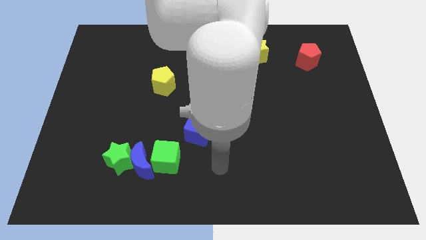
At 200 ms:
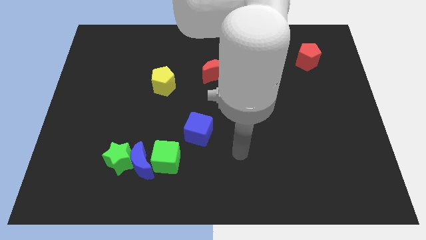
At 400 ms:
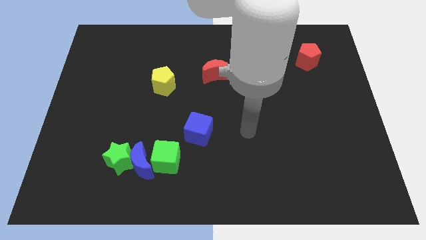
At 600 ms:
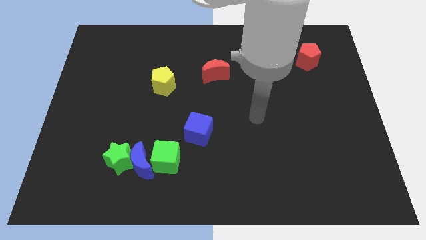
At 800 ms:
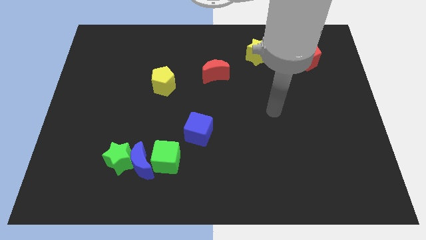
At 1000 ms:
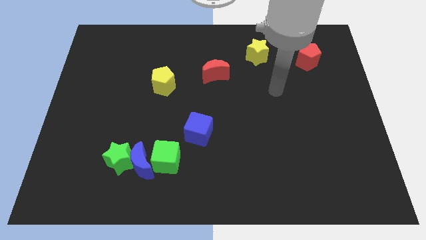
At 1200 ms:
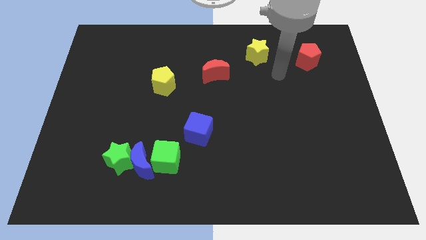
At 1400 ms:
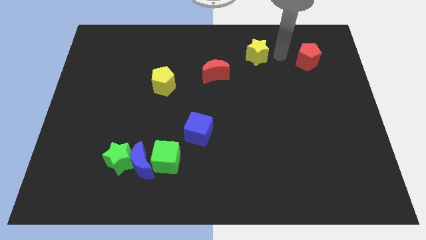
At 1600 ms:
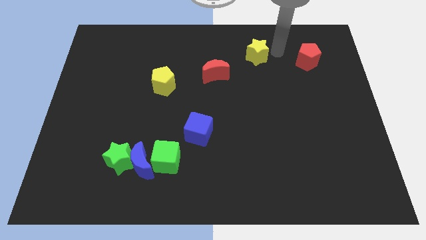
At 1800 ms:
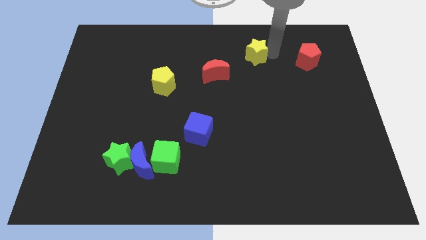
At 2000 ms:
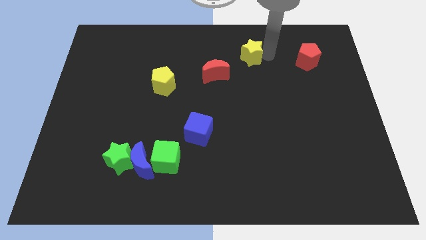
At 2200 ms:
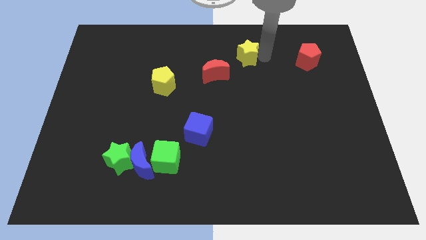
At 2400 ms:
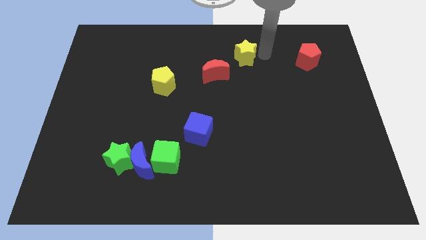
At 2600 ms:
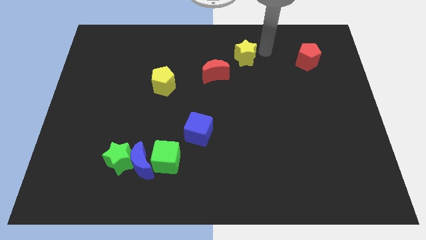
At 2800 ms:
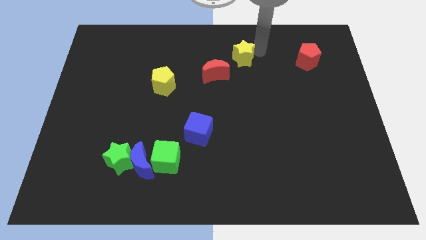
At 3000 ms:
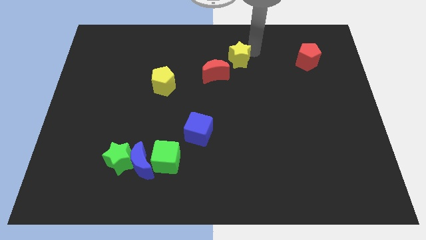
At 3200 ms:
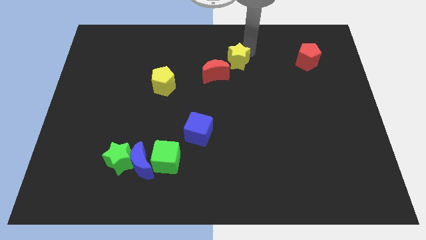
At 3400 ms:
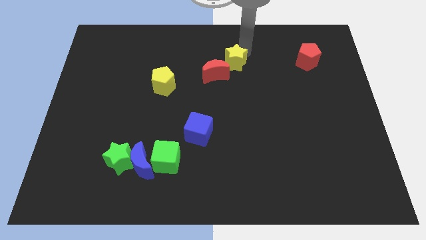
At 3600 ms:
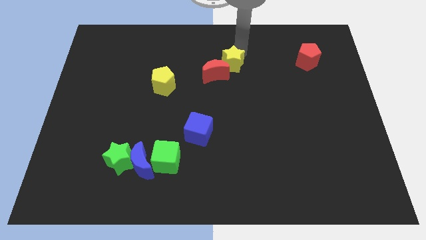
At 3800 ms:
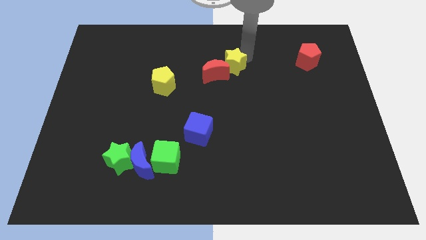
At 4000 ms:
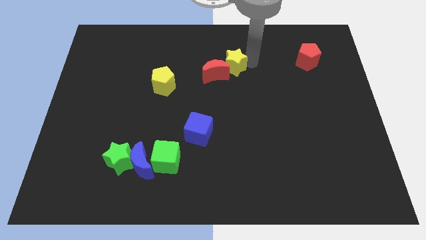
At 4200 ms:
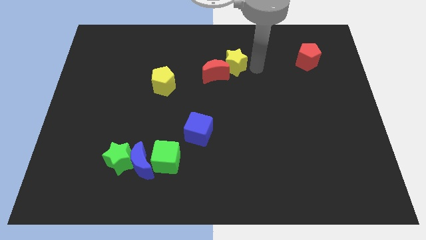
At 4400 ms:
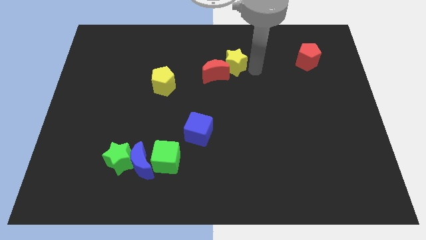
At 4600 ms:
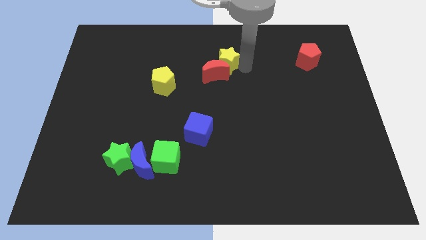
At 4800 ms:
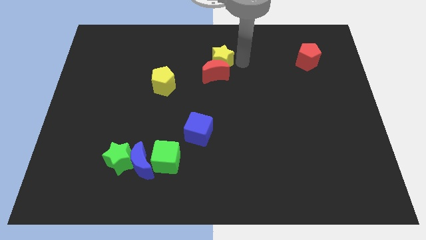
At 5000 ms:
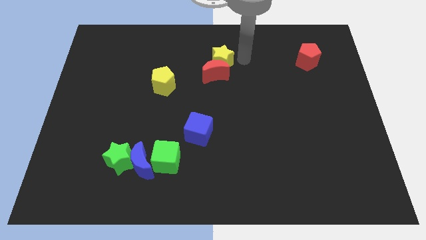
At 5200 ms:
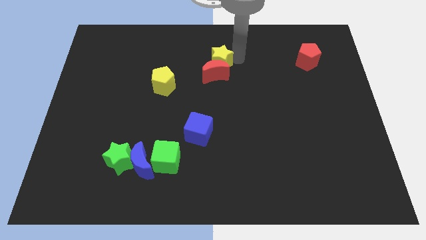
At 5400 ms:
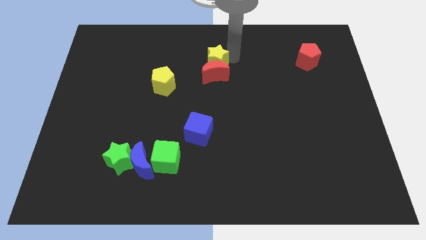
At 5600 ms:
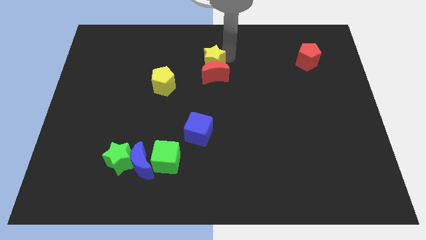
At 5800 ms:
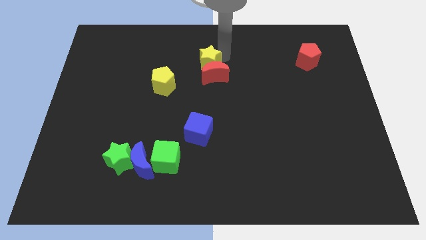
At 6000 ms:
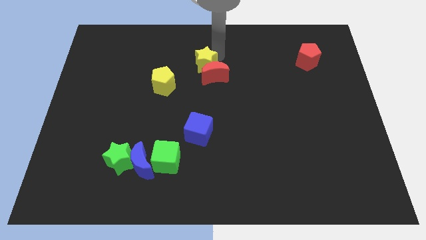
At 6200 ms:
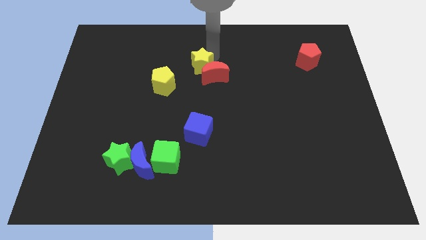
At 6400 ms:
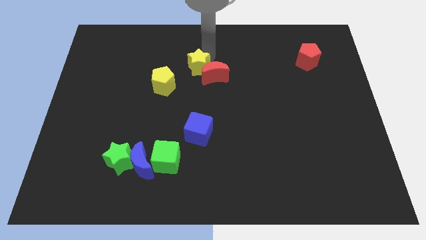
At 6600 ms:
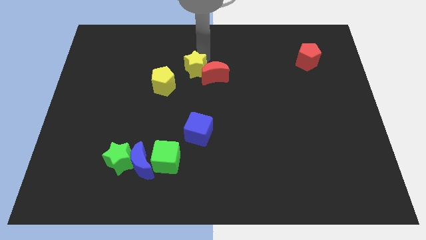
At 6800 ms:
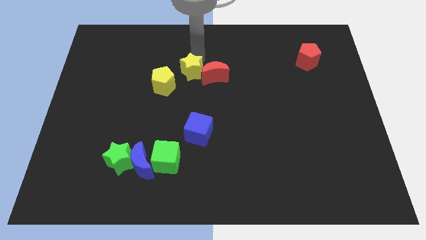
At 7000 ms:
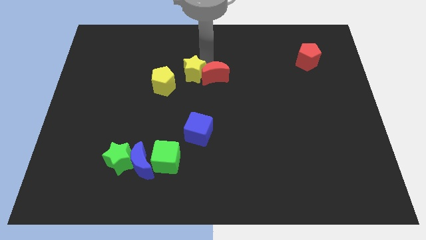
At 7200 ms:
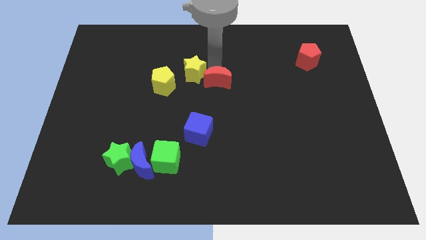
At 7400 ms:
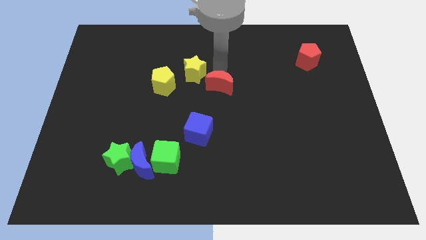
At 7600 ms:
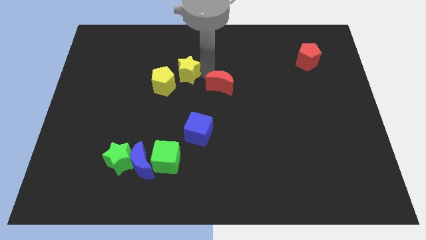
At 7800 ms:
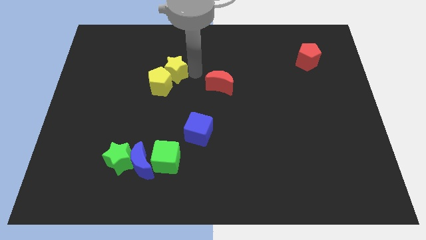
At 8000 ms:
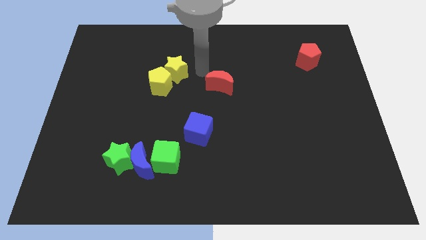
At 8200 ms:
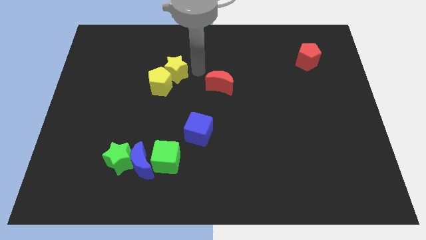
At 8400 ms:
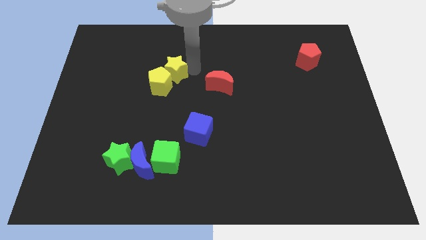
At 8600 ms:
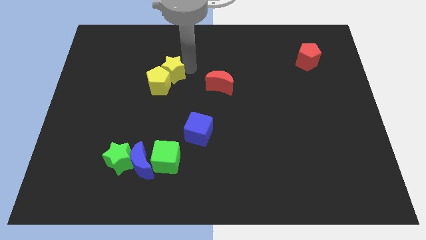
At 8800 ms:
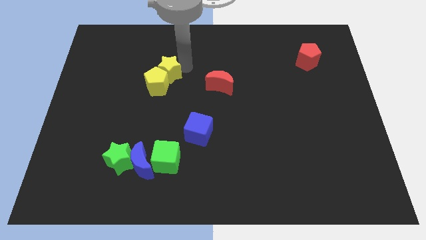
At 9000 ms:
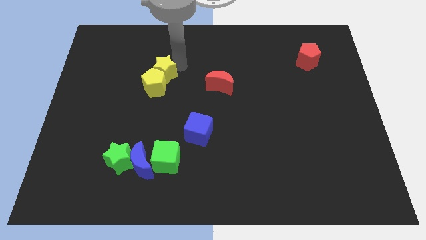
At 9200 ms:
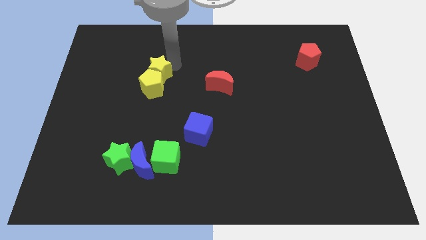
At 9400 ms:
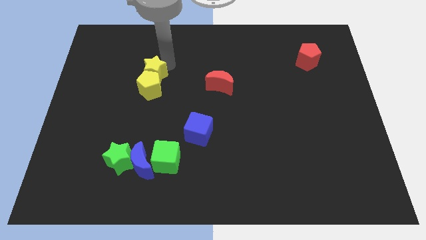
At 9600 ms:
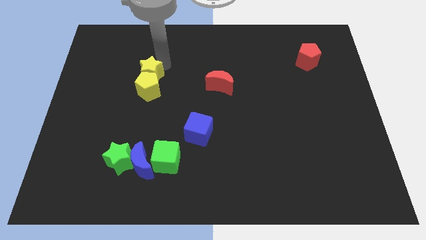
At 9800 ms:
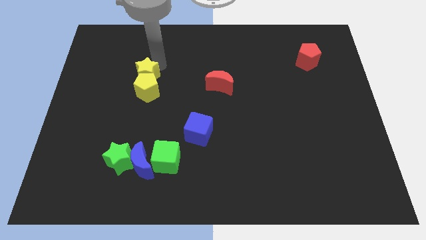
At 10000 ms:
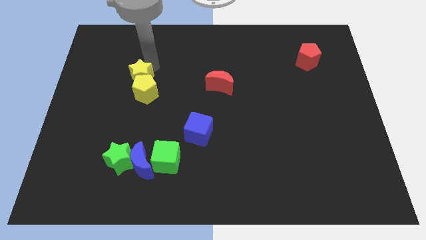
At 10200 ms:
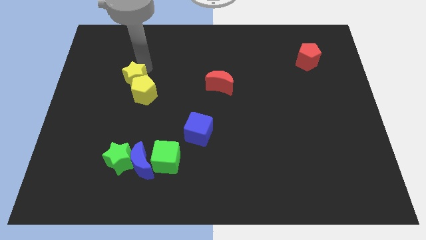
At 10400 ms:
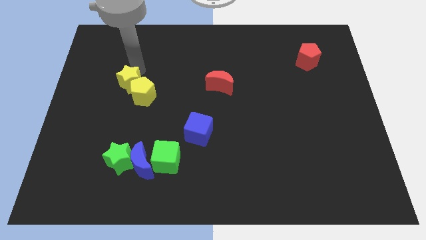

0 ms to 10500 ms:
put the yellow star left of the yellow pentagon
